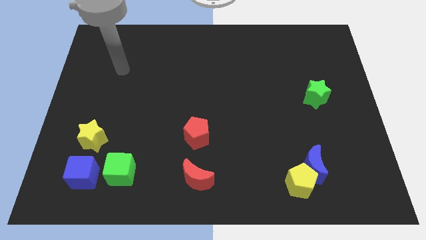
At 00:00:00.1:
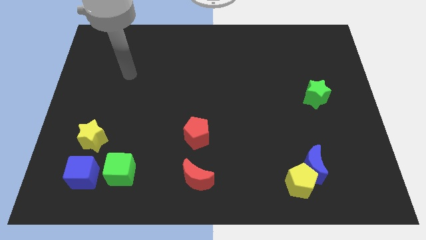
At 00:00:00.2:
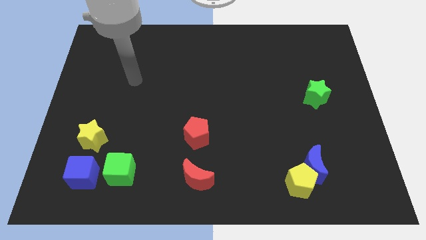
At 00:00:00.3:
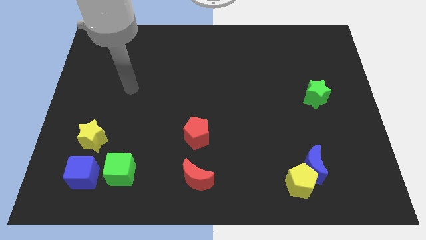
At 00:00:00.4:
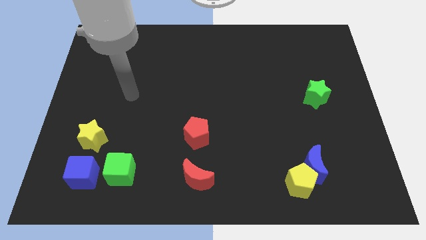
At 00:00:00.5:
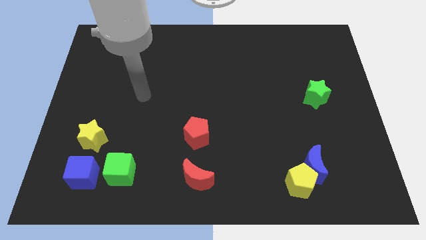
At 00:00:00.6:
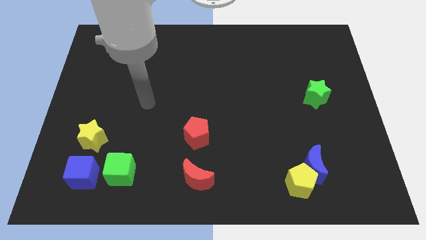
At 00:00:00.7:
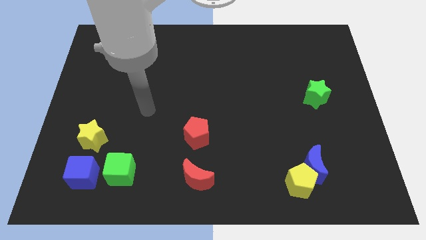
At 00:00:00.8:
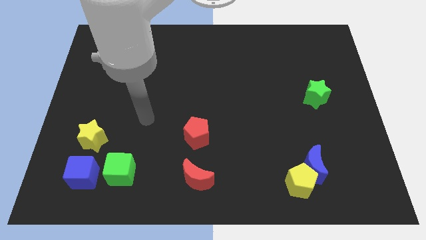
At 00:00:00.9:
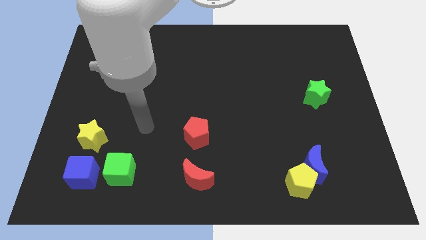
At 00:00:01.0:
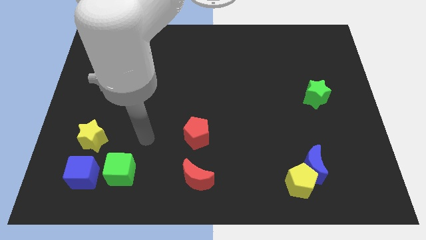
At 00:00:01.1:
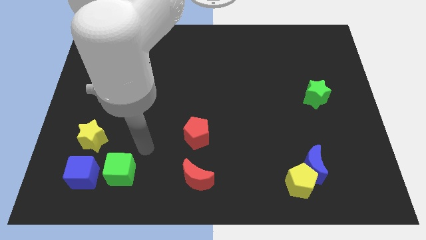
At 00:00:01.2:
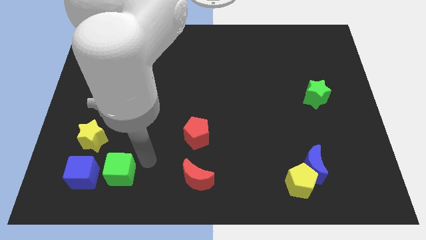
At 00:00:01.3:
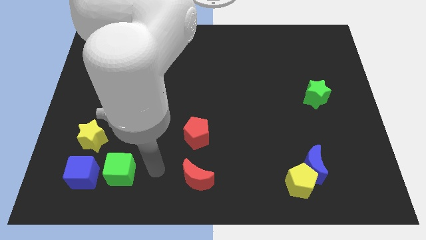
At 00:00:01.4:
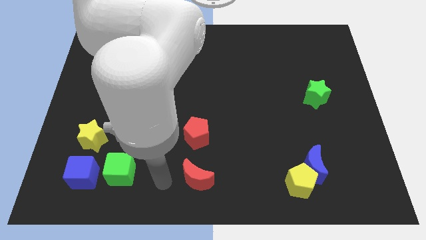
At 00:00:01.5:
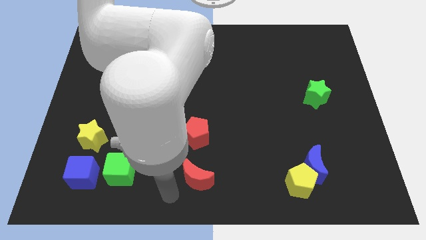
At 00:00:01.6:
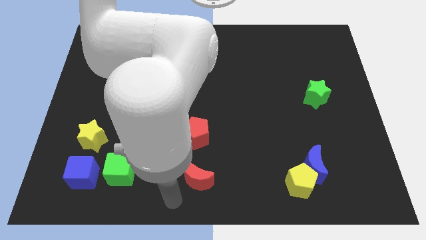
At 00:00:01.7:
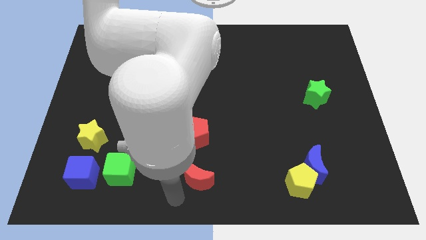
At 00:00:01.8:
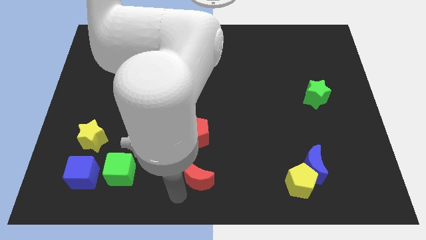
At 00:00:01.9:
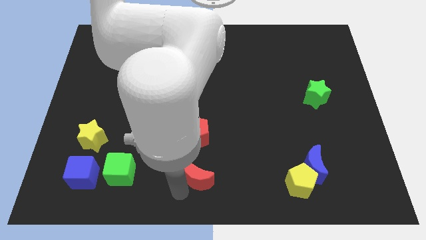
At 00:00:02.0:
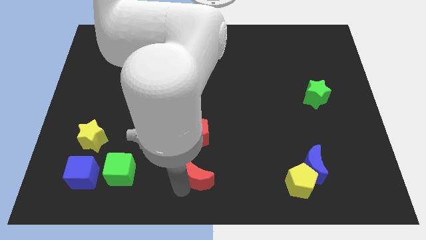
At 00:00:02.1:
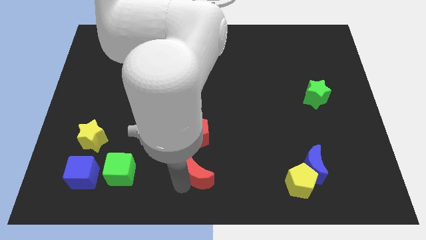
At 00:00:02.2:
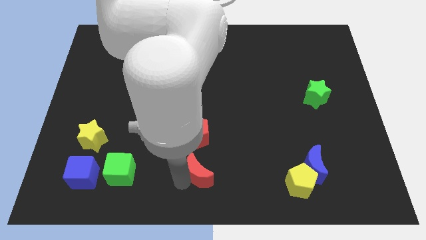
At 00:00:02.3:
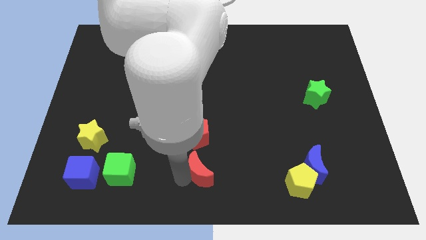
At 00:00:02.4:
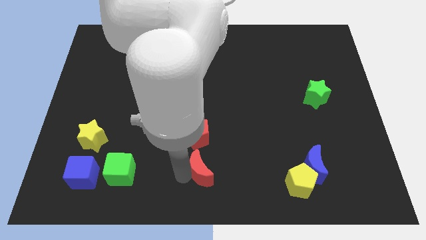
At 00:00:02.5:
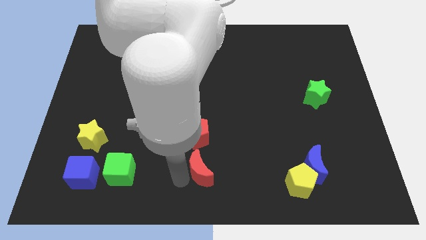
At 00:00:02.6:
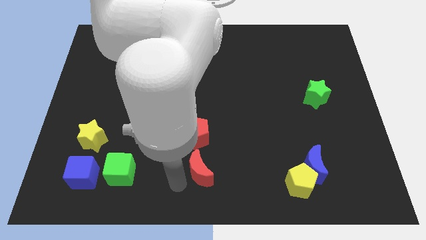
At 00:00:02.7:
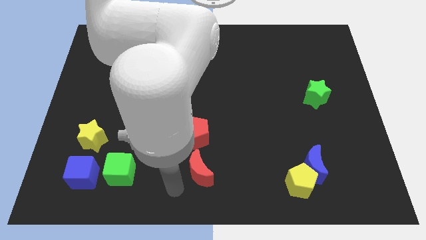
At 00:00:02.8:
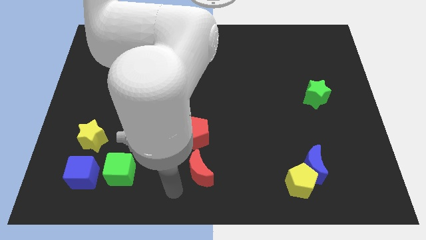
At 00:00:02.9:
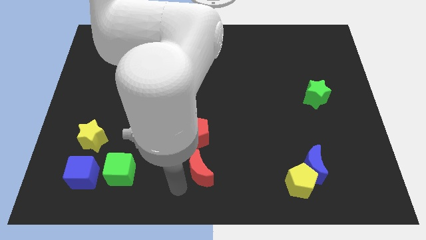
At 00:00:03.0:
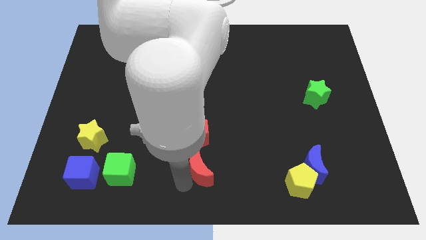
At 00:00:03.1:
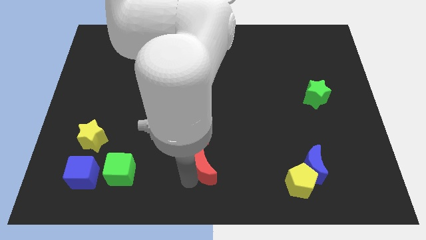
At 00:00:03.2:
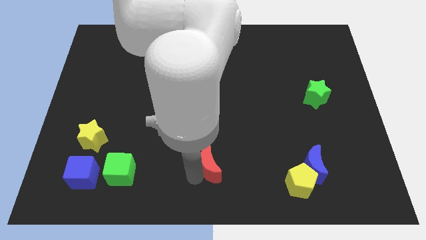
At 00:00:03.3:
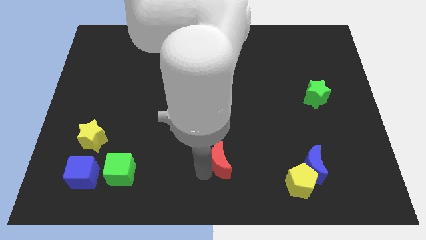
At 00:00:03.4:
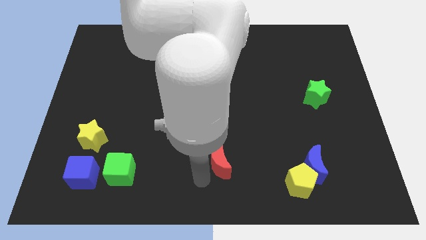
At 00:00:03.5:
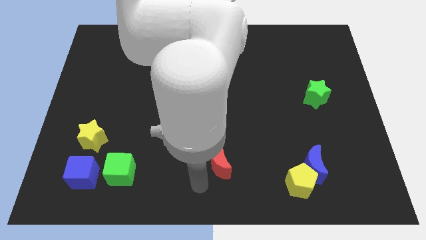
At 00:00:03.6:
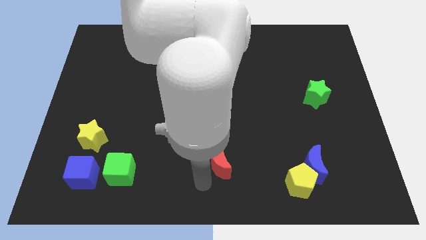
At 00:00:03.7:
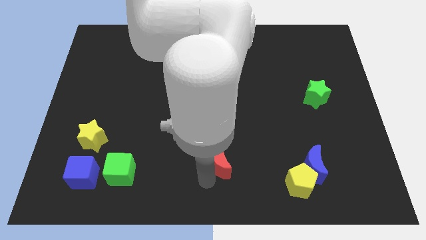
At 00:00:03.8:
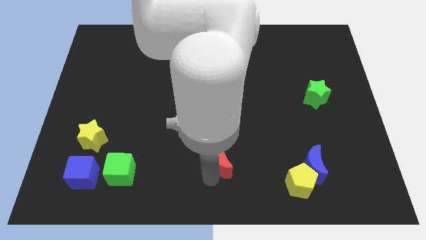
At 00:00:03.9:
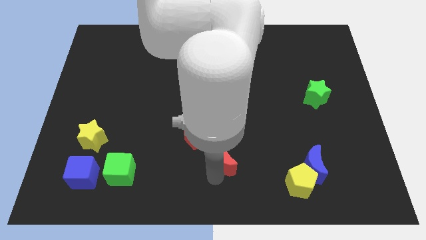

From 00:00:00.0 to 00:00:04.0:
push the red moon a little up and then to the right

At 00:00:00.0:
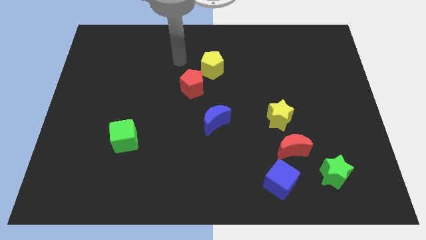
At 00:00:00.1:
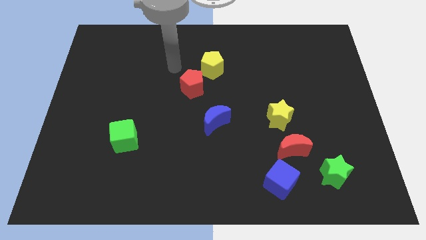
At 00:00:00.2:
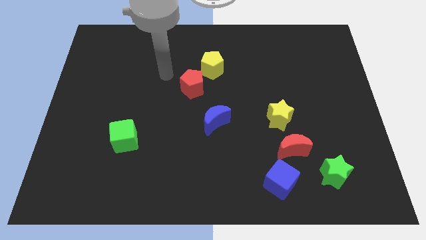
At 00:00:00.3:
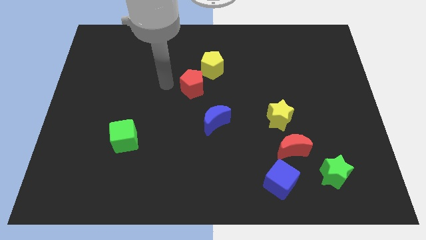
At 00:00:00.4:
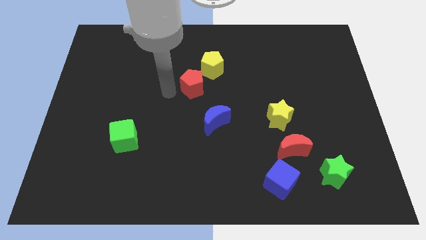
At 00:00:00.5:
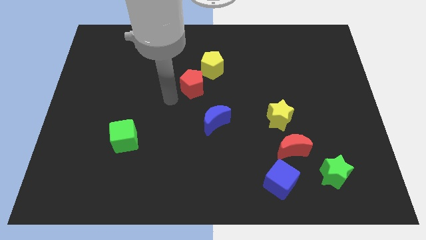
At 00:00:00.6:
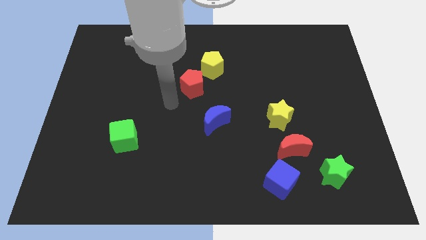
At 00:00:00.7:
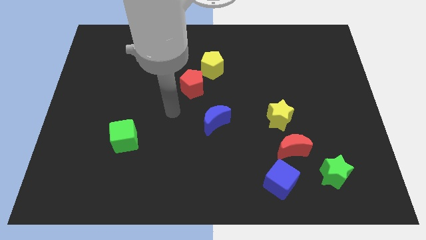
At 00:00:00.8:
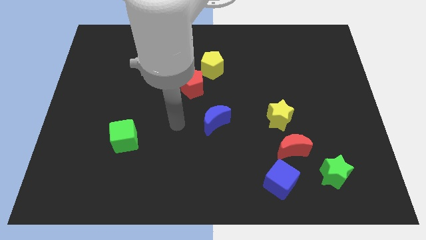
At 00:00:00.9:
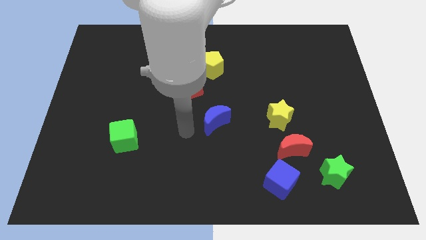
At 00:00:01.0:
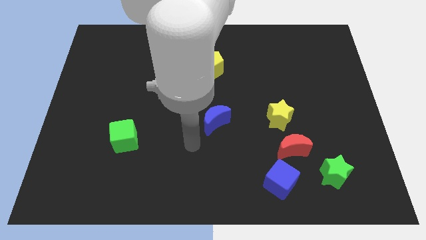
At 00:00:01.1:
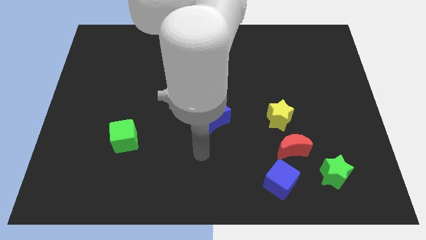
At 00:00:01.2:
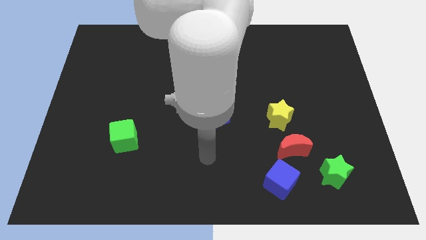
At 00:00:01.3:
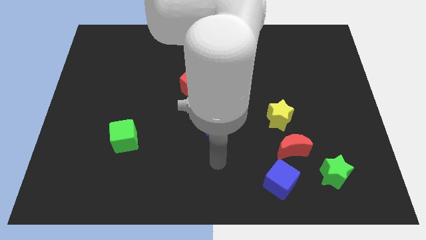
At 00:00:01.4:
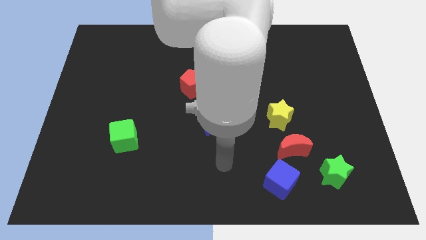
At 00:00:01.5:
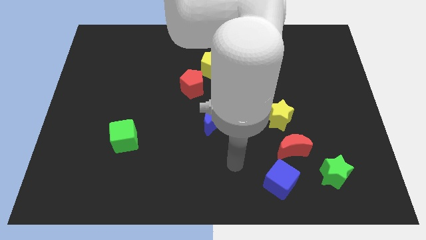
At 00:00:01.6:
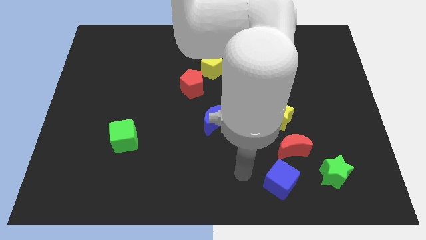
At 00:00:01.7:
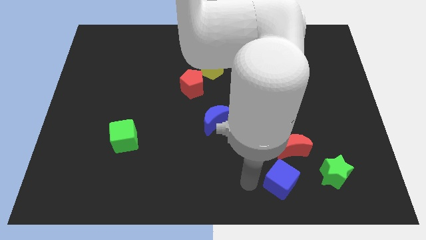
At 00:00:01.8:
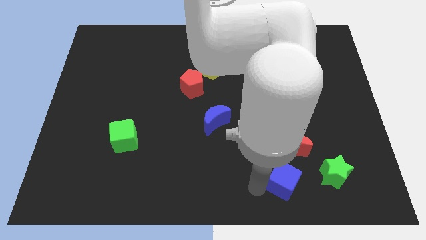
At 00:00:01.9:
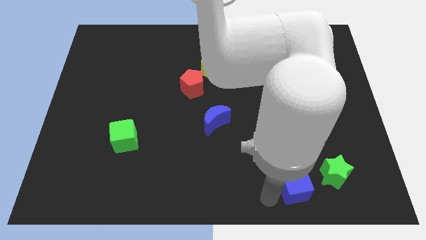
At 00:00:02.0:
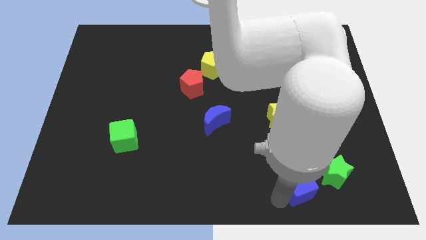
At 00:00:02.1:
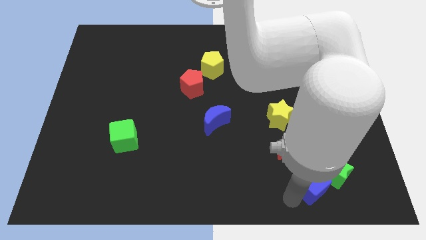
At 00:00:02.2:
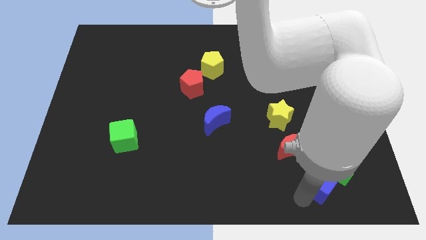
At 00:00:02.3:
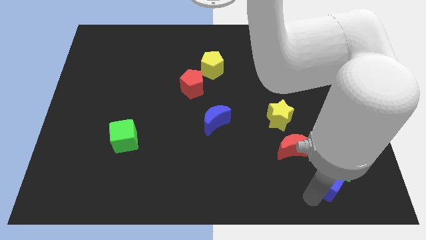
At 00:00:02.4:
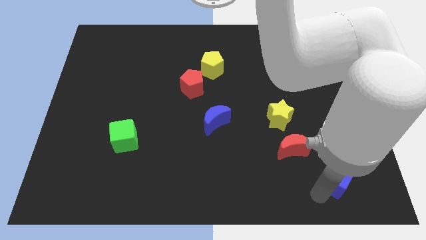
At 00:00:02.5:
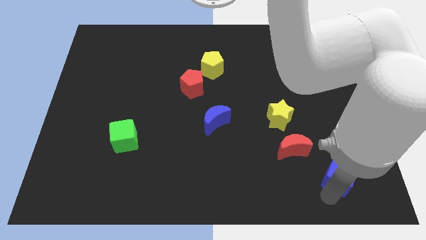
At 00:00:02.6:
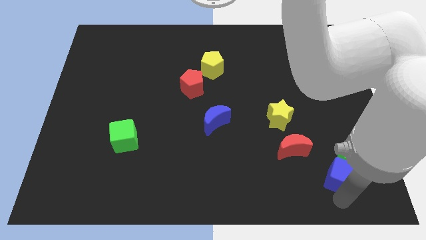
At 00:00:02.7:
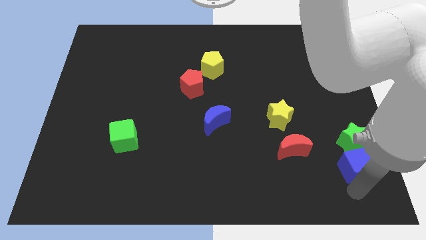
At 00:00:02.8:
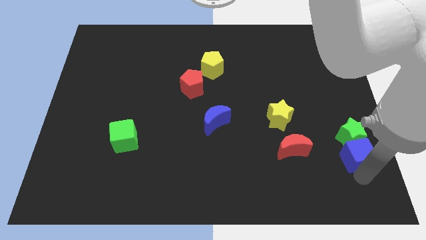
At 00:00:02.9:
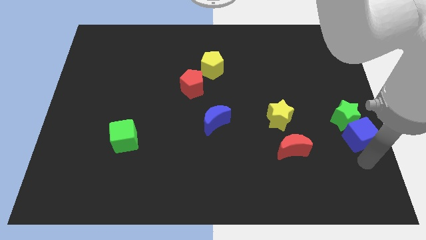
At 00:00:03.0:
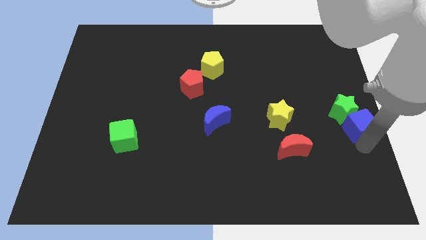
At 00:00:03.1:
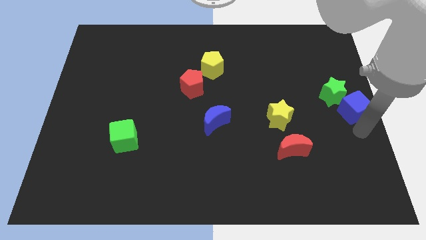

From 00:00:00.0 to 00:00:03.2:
slide the green star upwards

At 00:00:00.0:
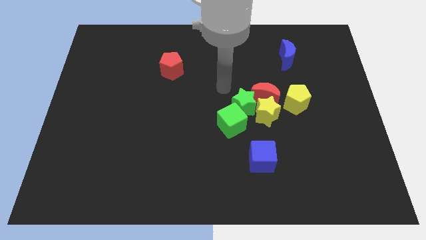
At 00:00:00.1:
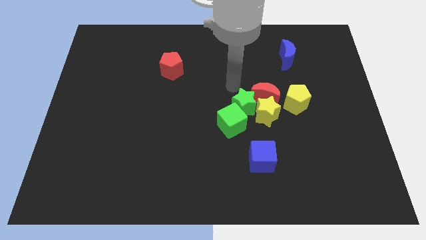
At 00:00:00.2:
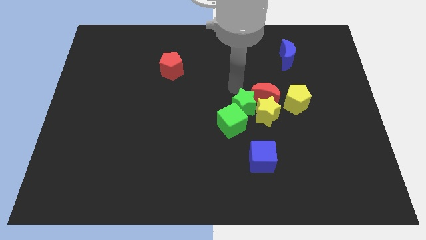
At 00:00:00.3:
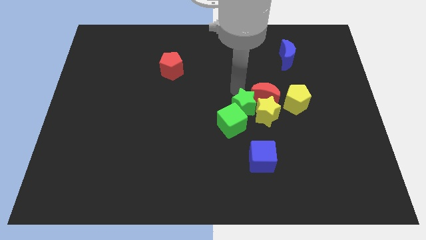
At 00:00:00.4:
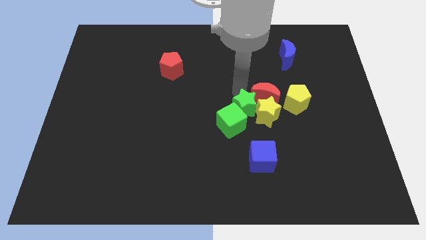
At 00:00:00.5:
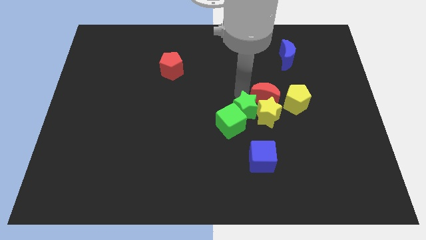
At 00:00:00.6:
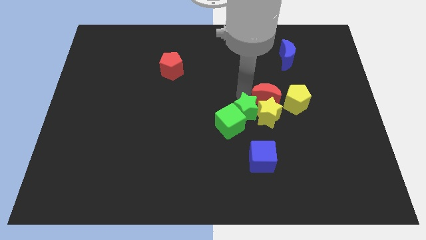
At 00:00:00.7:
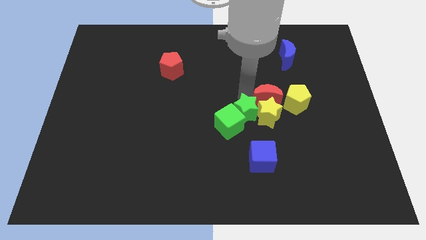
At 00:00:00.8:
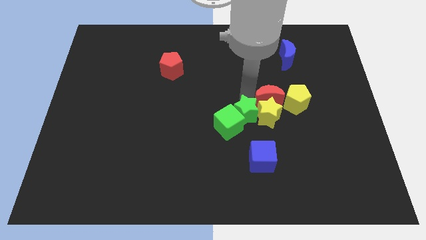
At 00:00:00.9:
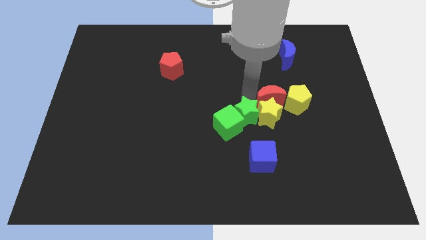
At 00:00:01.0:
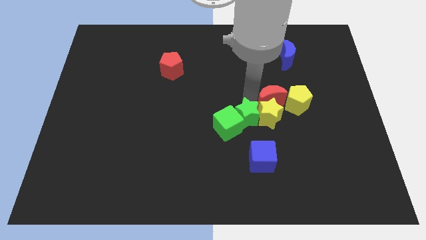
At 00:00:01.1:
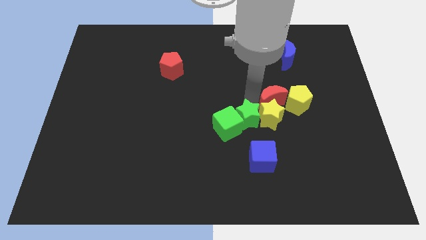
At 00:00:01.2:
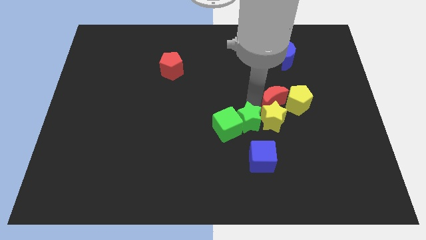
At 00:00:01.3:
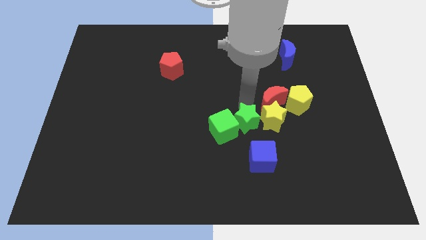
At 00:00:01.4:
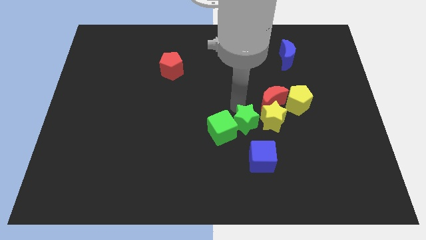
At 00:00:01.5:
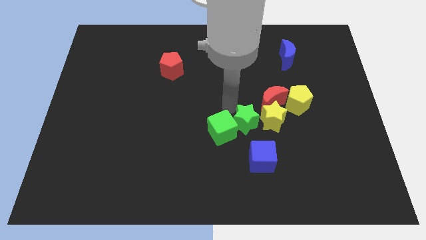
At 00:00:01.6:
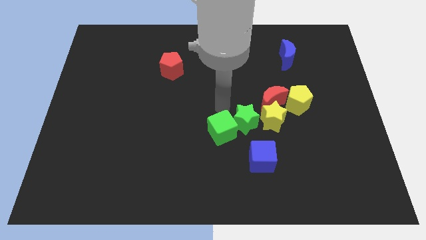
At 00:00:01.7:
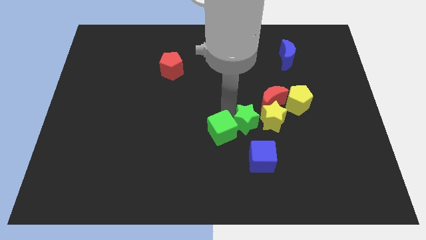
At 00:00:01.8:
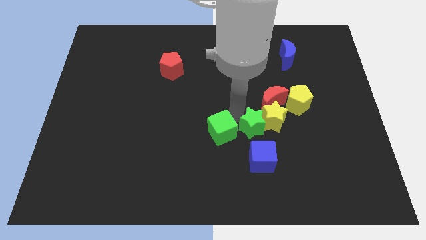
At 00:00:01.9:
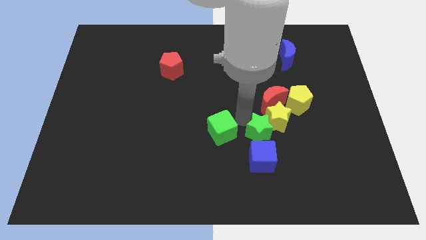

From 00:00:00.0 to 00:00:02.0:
push the green star down and right a little
